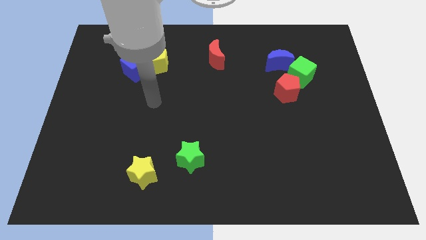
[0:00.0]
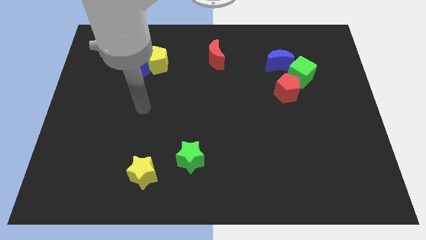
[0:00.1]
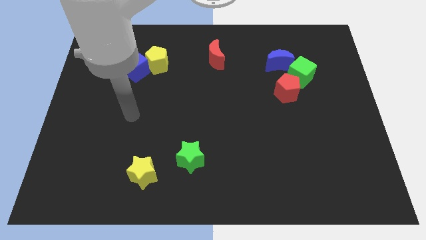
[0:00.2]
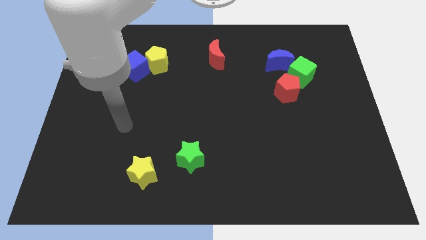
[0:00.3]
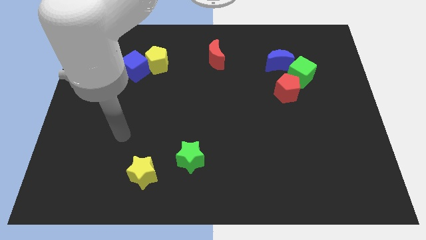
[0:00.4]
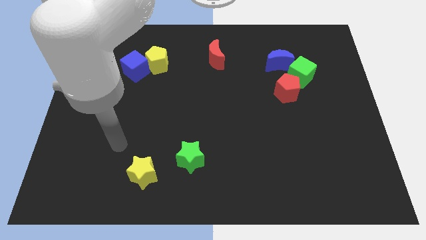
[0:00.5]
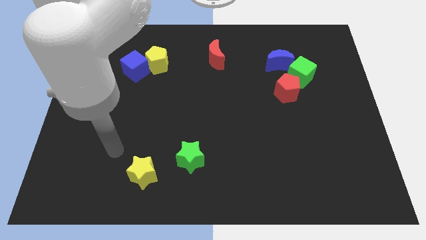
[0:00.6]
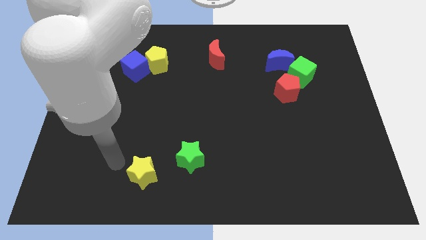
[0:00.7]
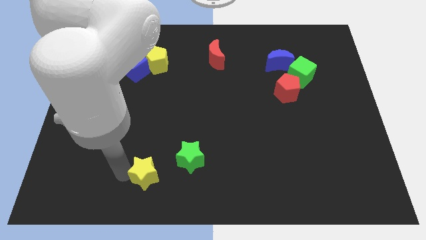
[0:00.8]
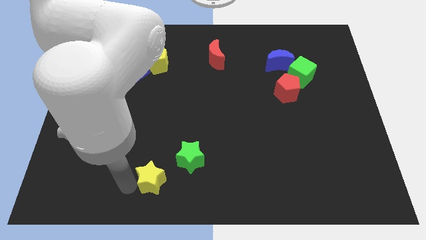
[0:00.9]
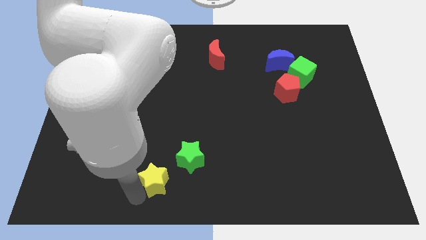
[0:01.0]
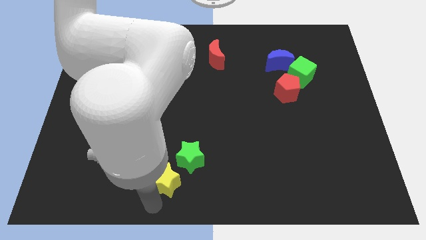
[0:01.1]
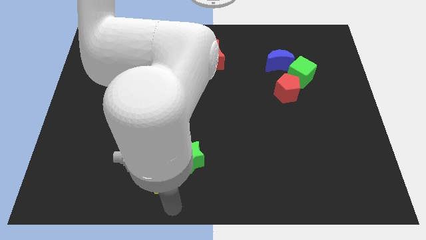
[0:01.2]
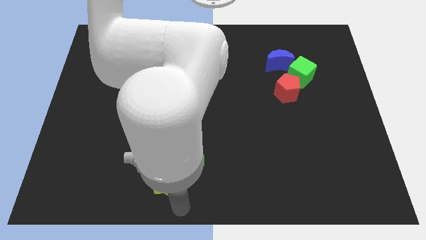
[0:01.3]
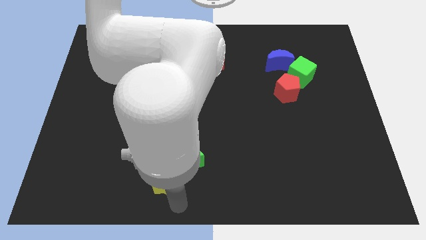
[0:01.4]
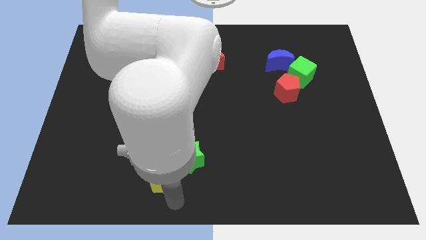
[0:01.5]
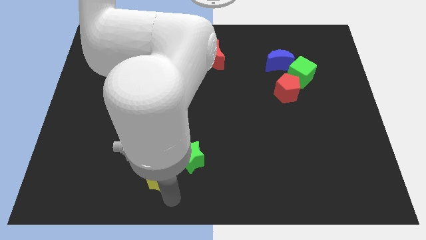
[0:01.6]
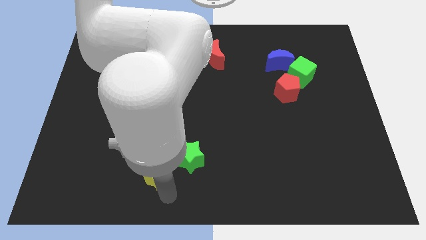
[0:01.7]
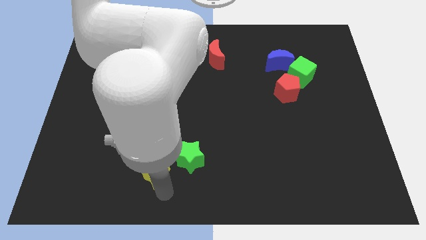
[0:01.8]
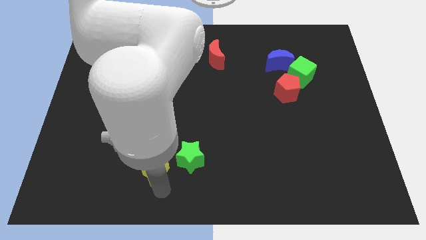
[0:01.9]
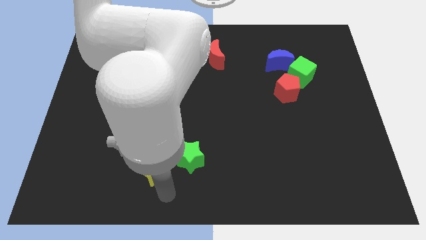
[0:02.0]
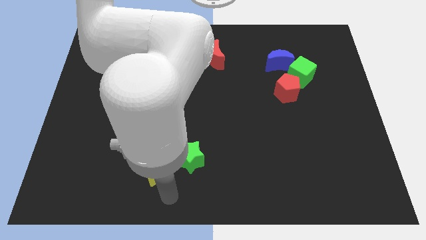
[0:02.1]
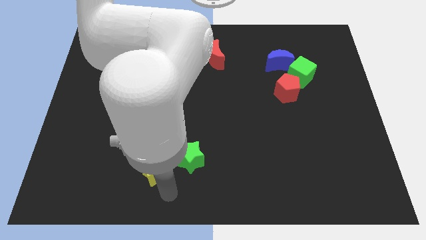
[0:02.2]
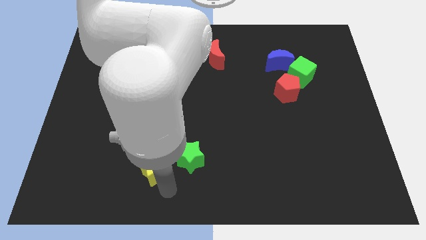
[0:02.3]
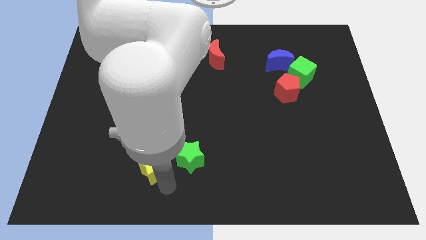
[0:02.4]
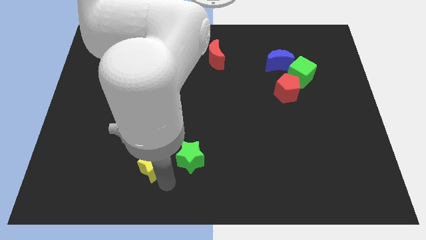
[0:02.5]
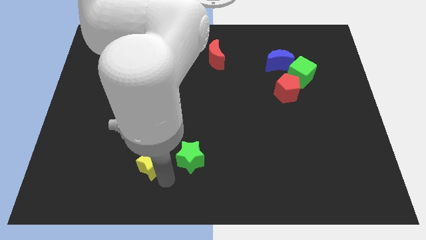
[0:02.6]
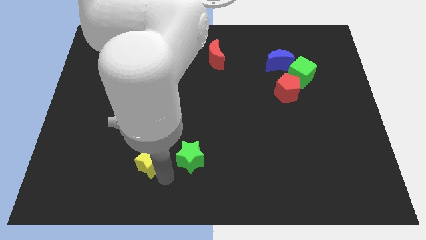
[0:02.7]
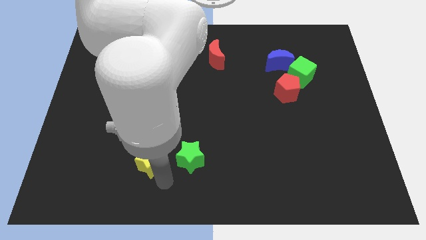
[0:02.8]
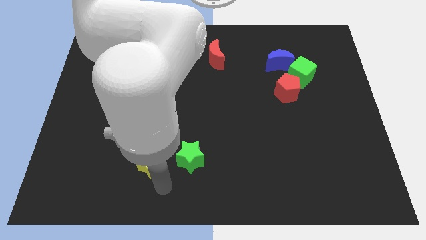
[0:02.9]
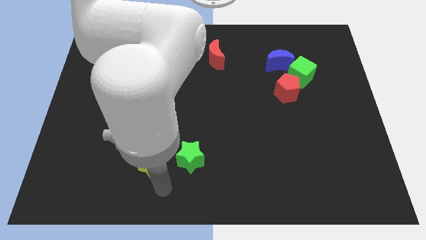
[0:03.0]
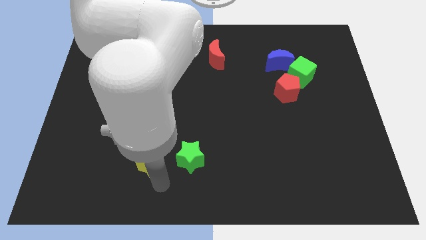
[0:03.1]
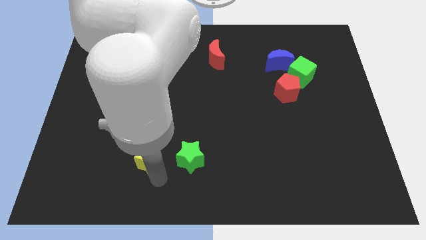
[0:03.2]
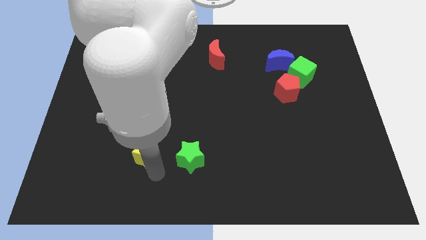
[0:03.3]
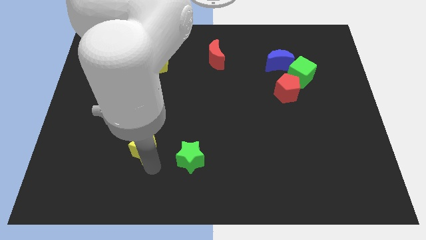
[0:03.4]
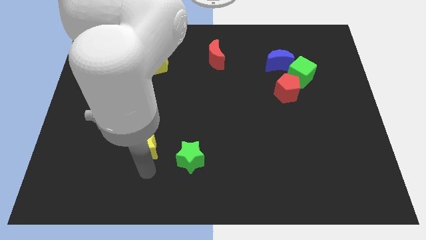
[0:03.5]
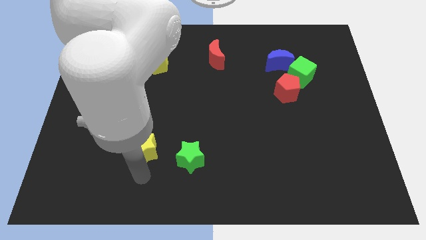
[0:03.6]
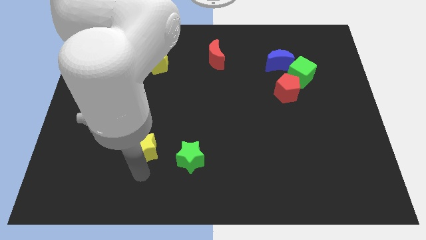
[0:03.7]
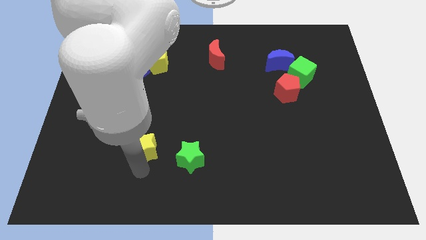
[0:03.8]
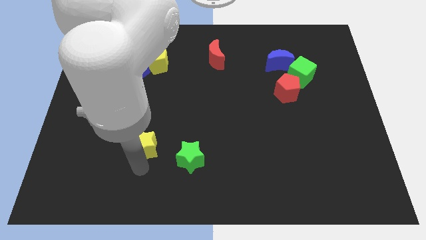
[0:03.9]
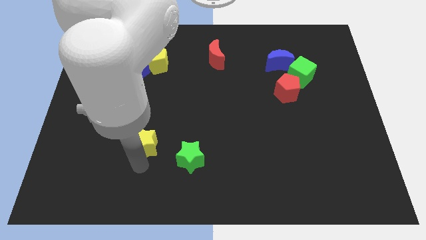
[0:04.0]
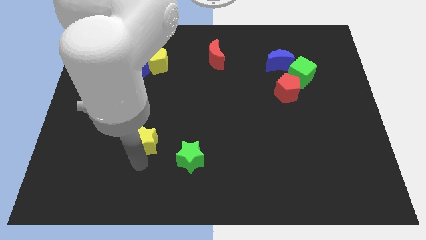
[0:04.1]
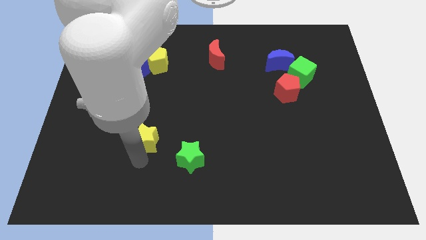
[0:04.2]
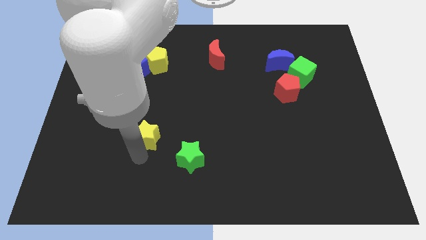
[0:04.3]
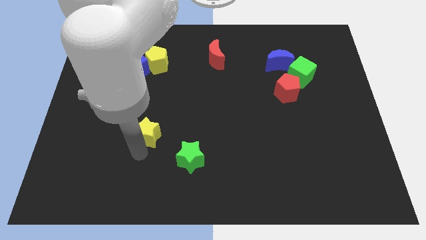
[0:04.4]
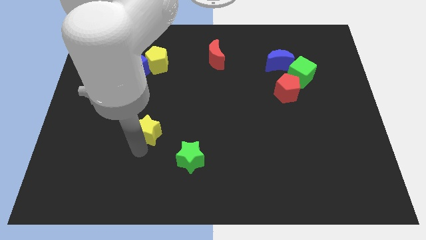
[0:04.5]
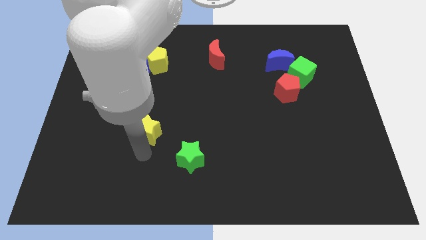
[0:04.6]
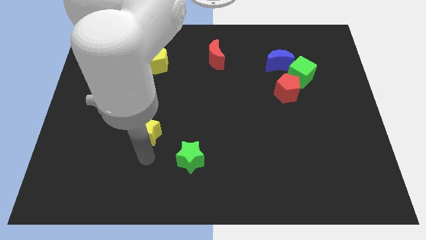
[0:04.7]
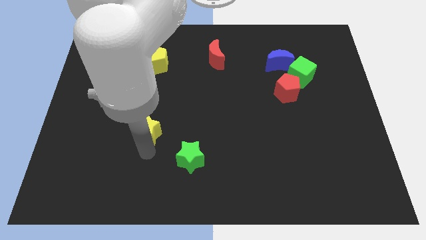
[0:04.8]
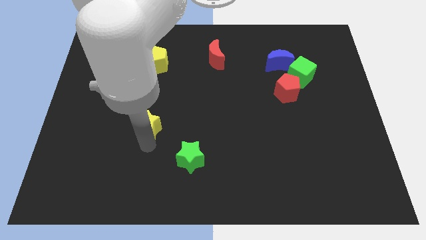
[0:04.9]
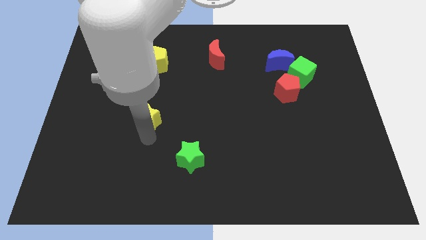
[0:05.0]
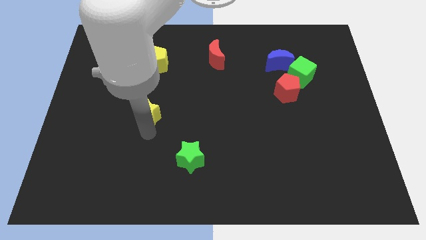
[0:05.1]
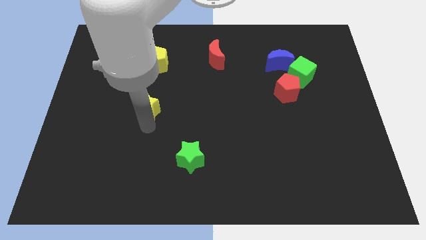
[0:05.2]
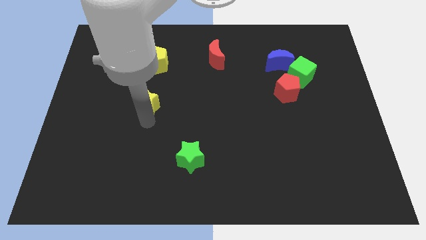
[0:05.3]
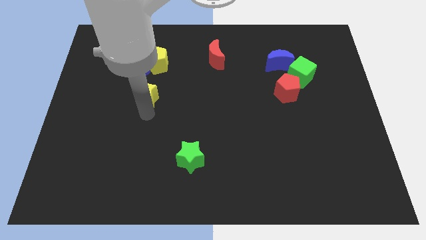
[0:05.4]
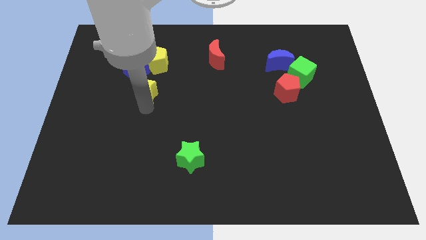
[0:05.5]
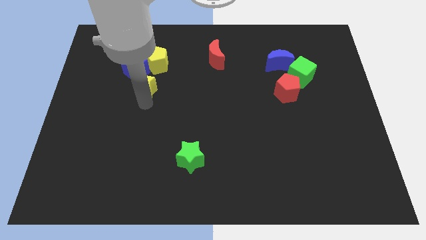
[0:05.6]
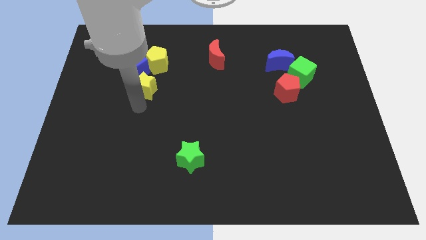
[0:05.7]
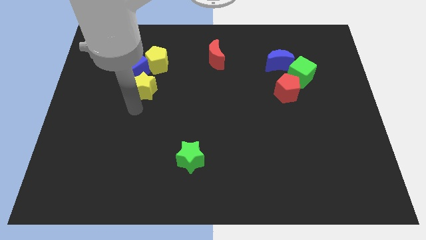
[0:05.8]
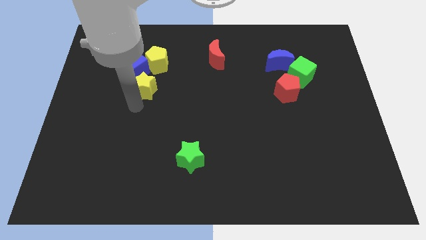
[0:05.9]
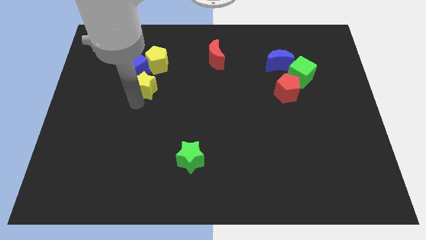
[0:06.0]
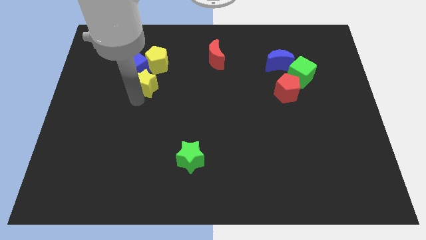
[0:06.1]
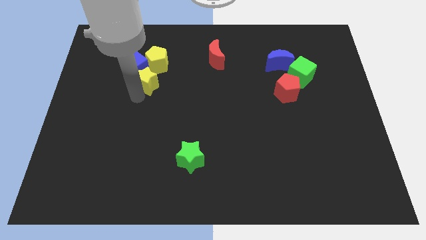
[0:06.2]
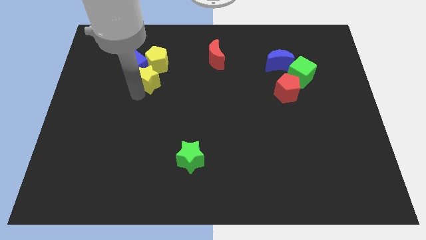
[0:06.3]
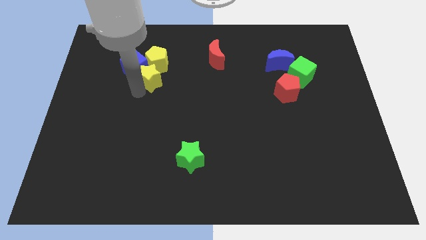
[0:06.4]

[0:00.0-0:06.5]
push the yellow star close to the yellow pentagon

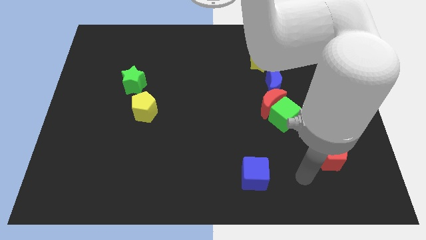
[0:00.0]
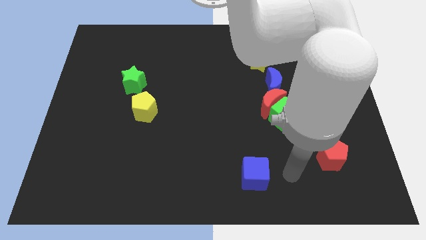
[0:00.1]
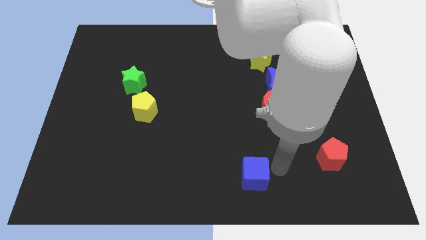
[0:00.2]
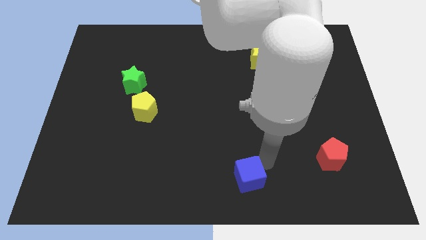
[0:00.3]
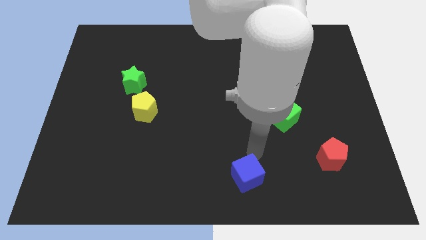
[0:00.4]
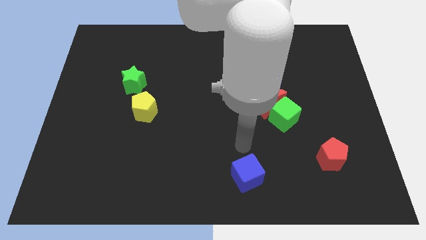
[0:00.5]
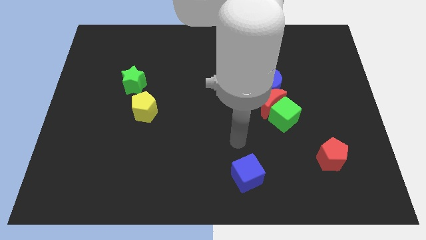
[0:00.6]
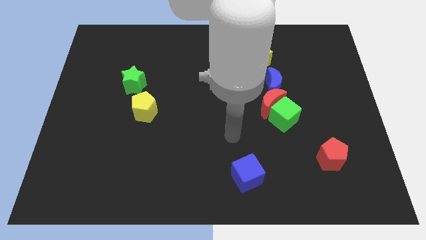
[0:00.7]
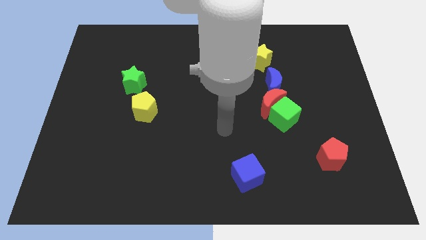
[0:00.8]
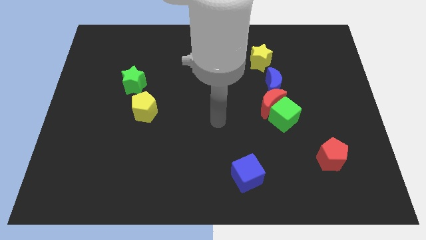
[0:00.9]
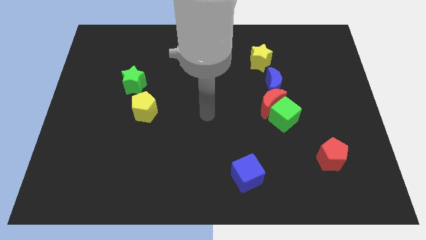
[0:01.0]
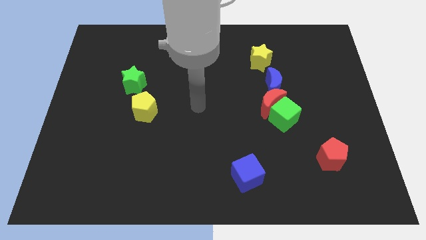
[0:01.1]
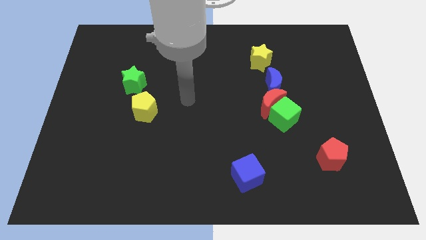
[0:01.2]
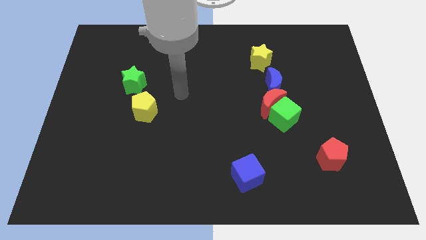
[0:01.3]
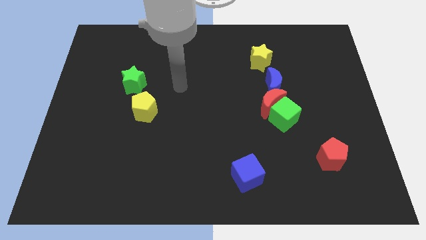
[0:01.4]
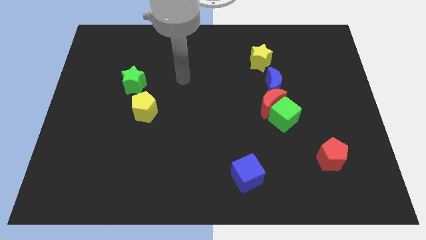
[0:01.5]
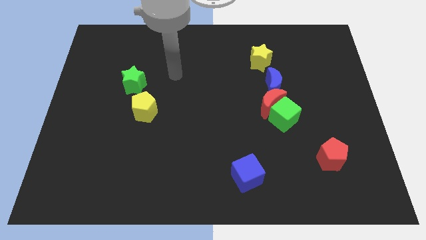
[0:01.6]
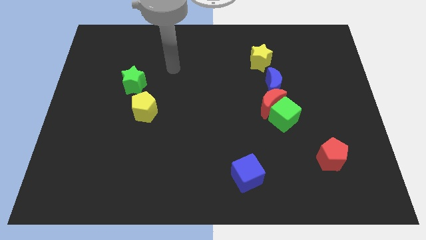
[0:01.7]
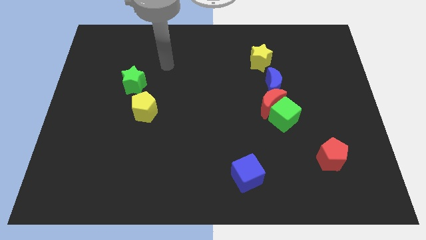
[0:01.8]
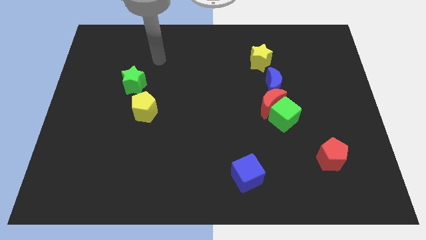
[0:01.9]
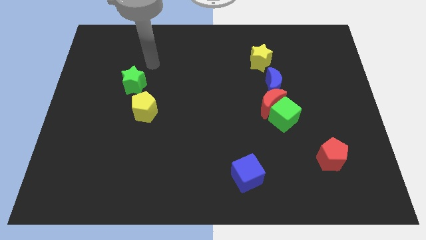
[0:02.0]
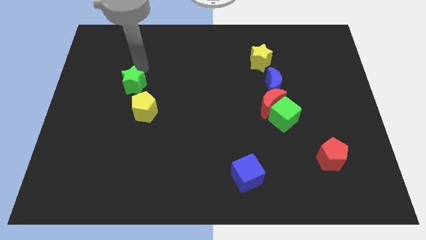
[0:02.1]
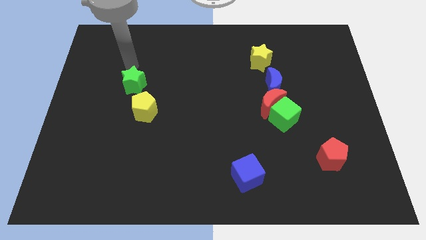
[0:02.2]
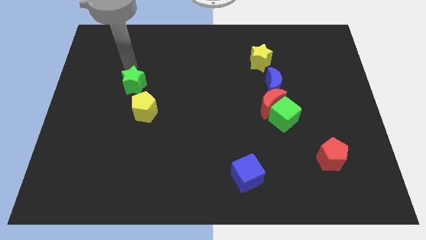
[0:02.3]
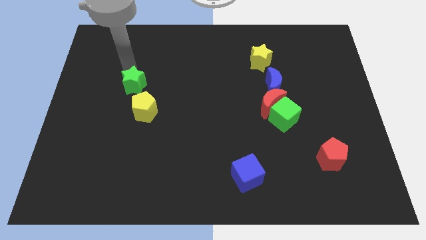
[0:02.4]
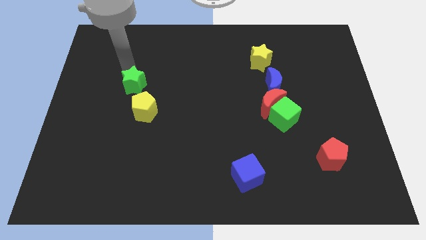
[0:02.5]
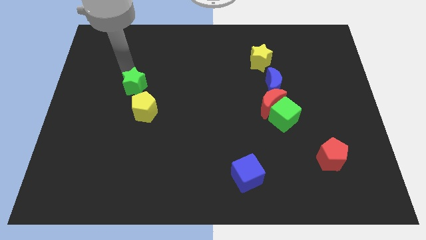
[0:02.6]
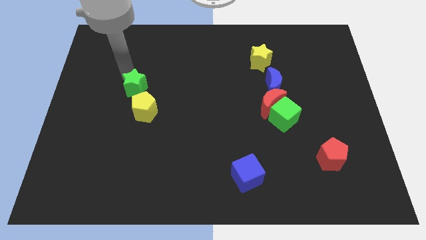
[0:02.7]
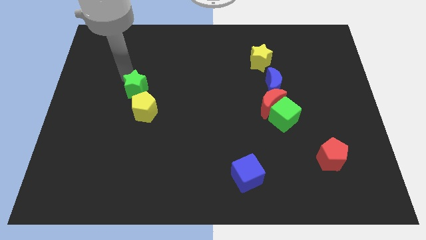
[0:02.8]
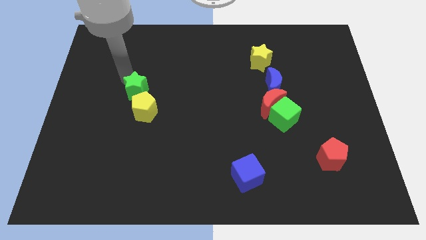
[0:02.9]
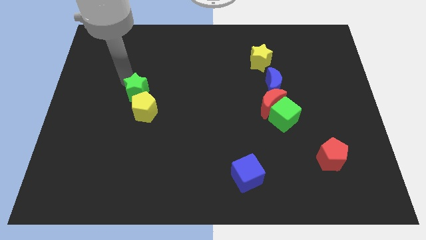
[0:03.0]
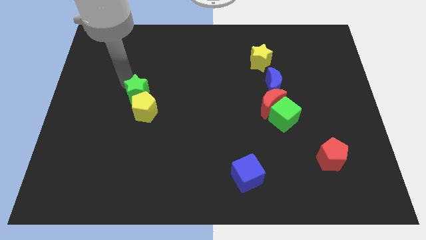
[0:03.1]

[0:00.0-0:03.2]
move the green star to the yellow pentagon
